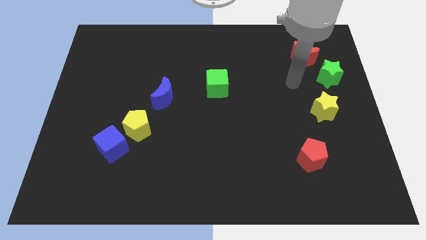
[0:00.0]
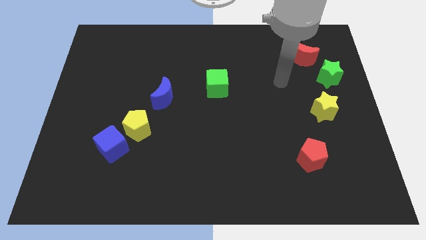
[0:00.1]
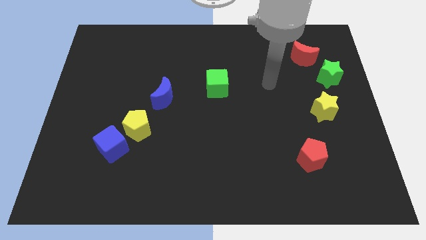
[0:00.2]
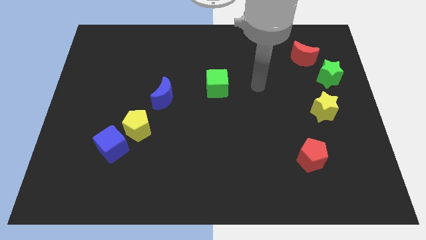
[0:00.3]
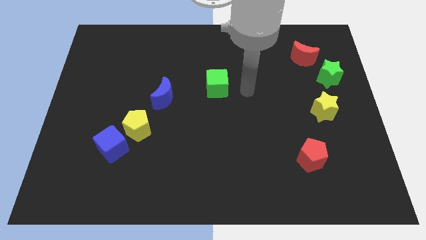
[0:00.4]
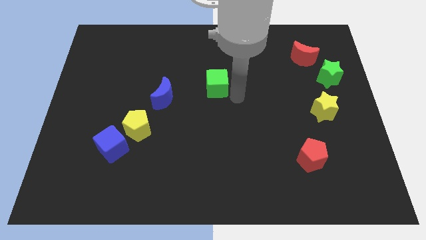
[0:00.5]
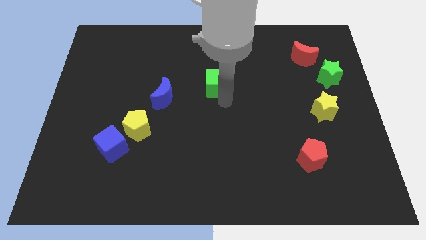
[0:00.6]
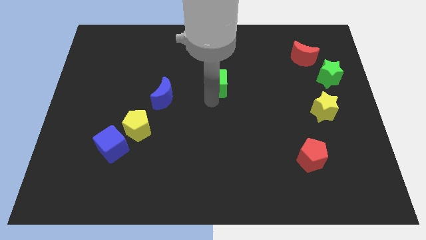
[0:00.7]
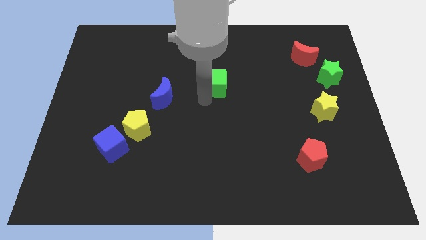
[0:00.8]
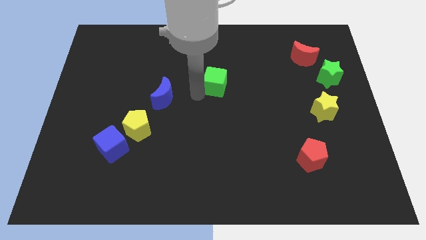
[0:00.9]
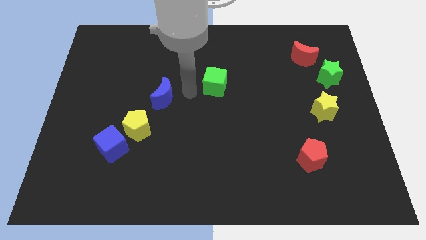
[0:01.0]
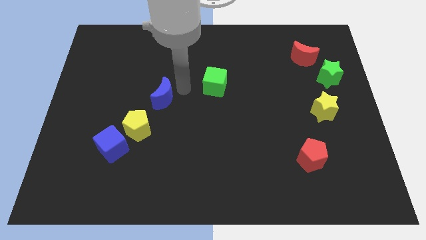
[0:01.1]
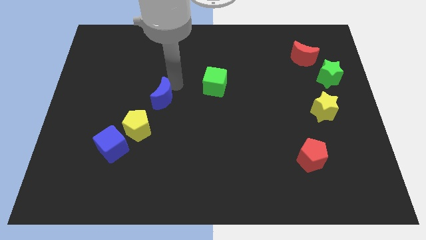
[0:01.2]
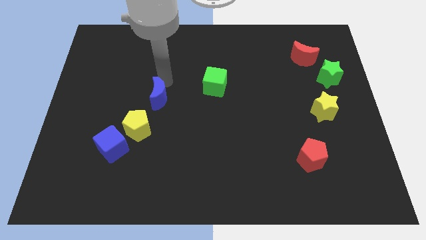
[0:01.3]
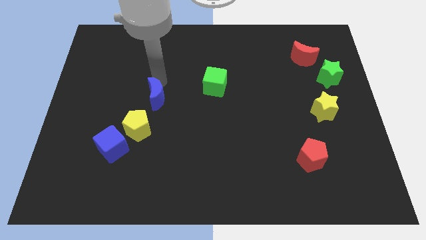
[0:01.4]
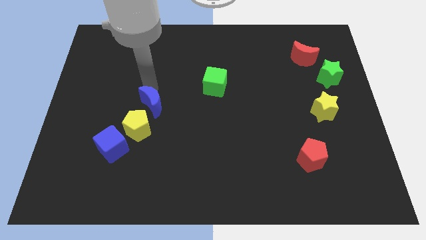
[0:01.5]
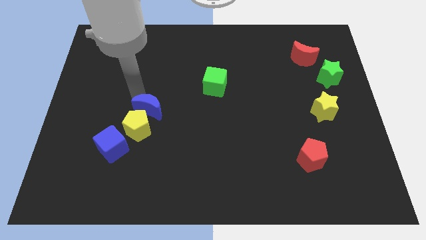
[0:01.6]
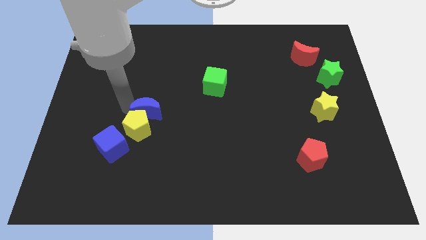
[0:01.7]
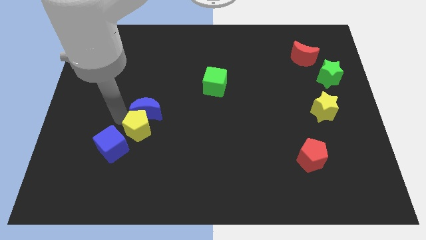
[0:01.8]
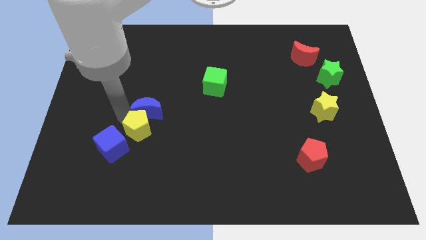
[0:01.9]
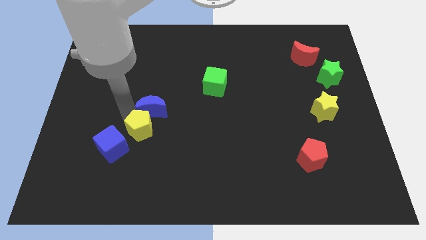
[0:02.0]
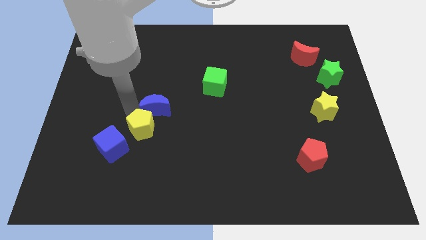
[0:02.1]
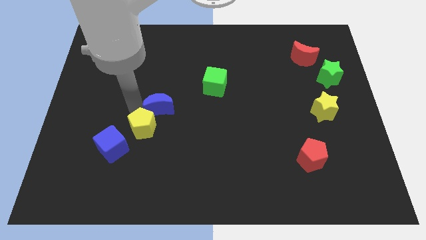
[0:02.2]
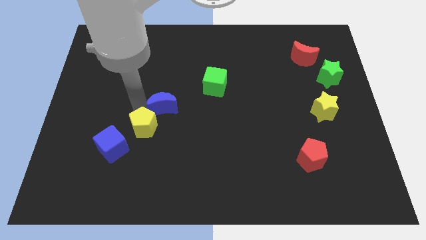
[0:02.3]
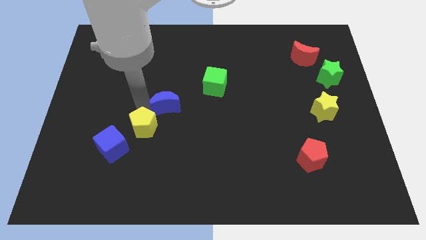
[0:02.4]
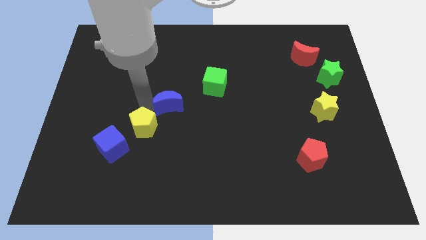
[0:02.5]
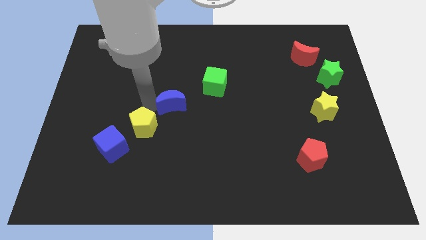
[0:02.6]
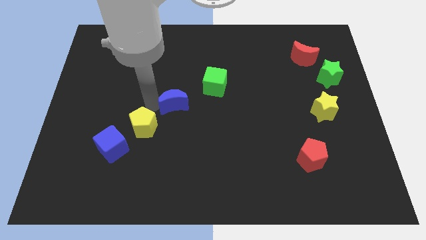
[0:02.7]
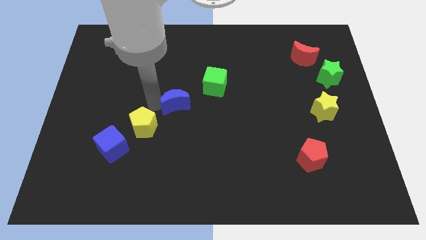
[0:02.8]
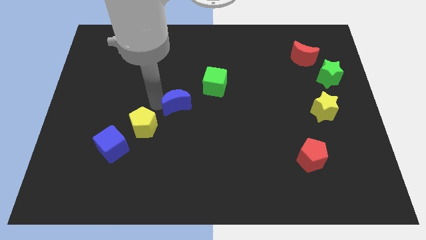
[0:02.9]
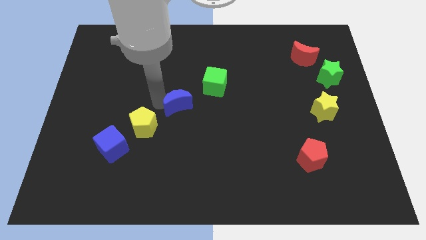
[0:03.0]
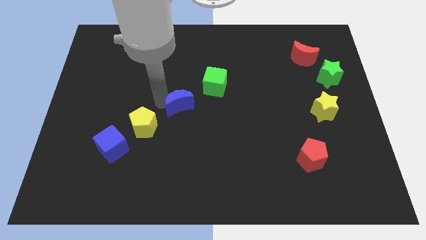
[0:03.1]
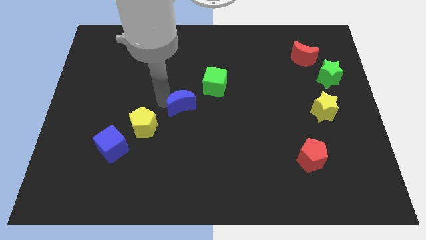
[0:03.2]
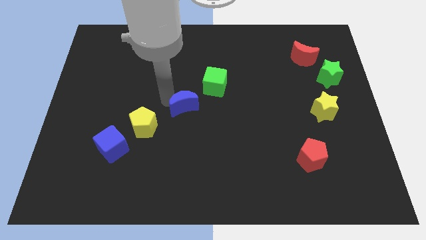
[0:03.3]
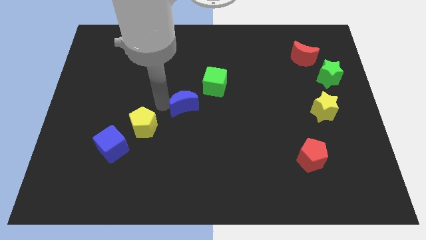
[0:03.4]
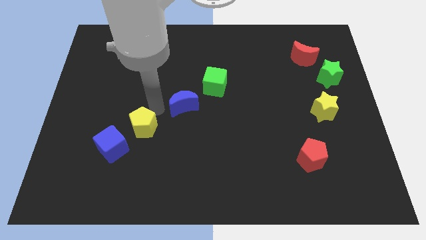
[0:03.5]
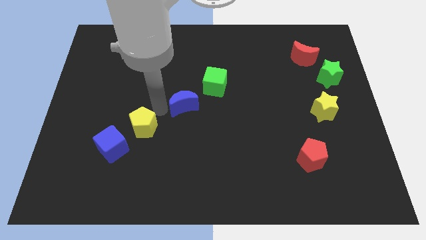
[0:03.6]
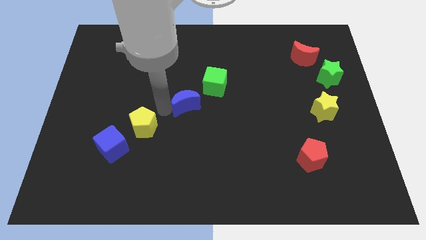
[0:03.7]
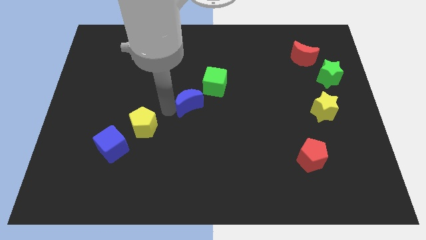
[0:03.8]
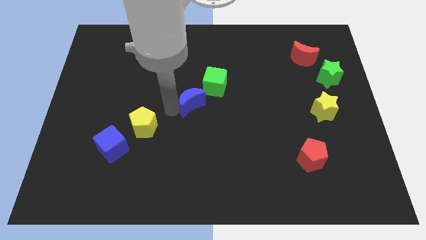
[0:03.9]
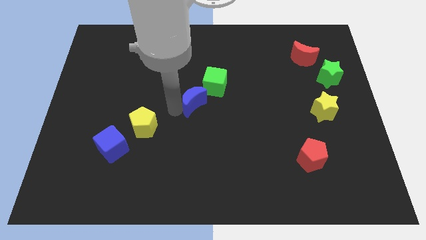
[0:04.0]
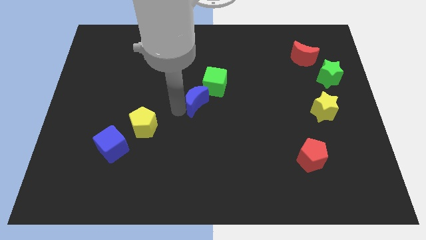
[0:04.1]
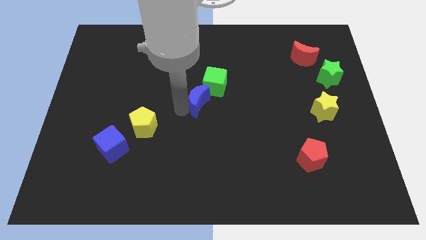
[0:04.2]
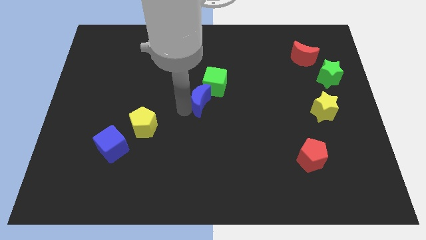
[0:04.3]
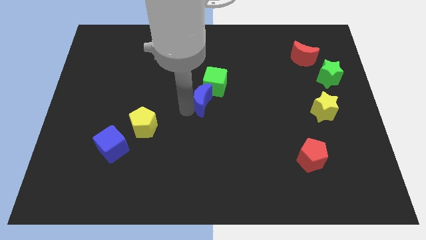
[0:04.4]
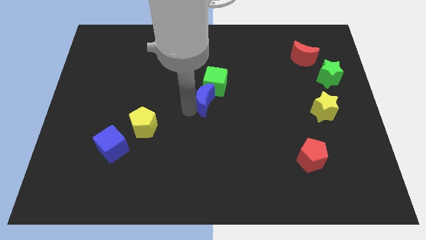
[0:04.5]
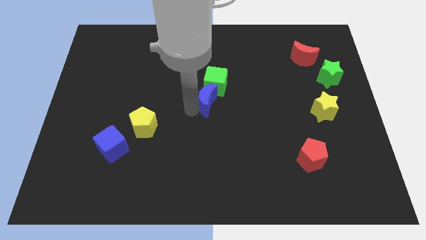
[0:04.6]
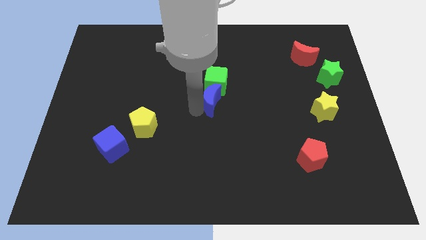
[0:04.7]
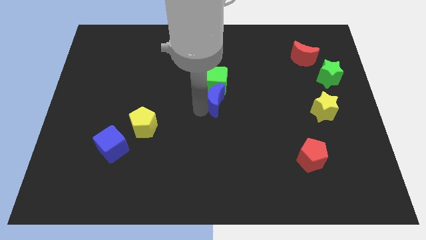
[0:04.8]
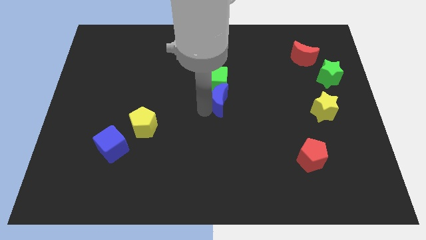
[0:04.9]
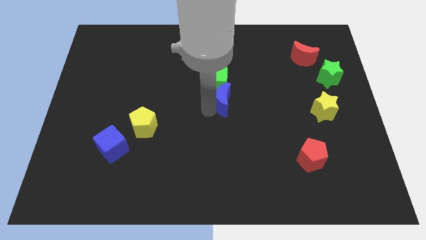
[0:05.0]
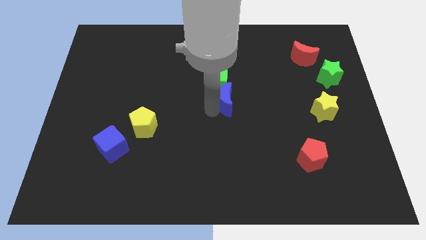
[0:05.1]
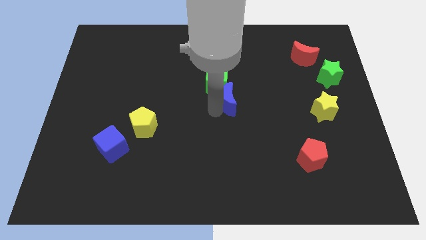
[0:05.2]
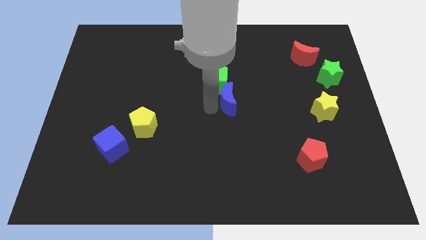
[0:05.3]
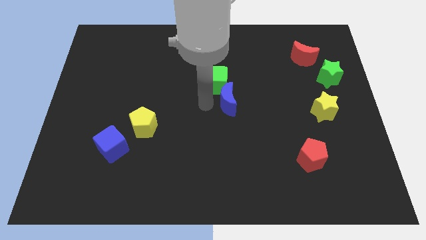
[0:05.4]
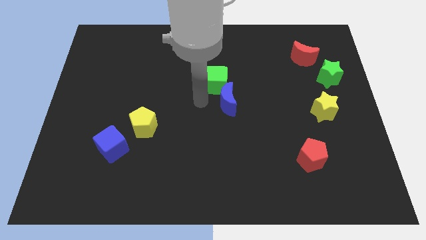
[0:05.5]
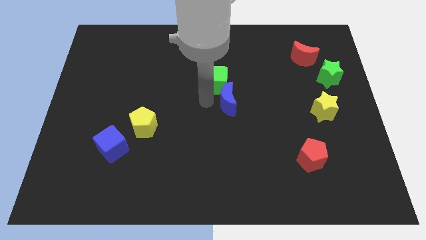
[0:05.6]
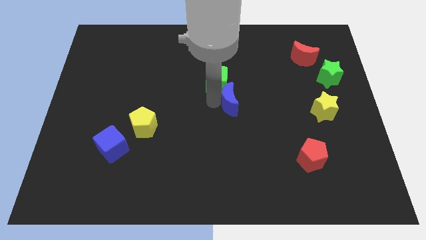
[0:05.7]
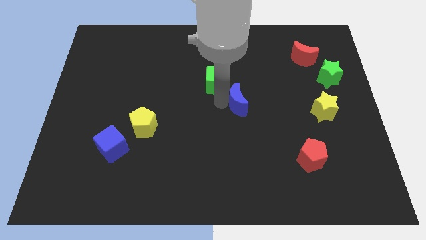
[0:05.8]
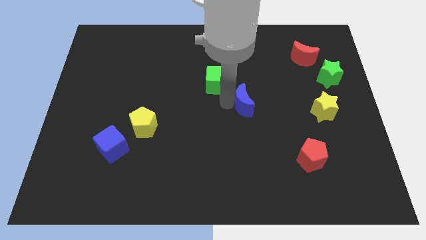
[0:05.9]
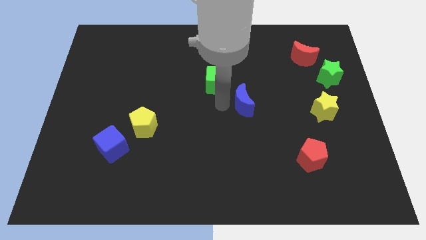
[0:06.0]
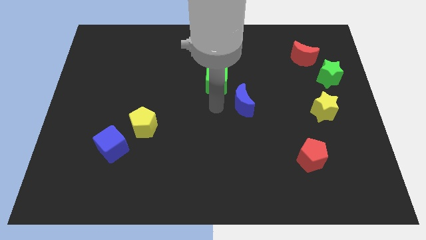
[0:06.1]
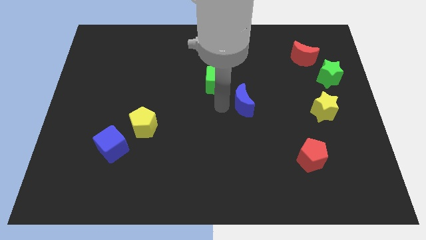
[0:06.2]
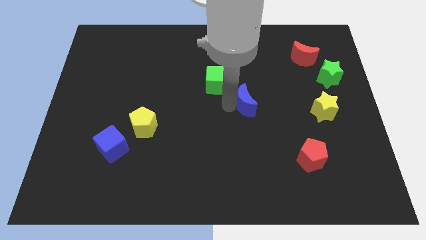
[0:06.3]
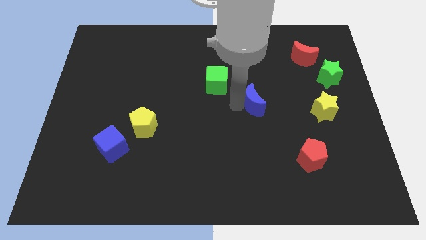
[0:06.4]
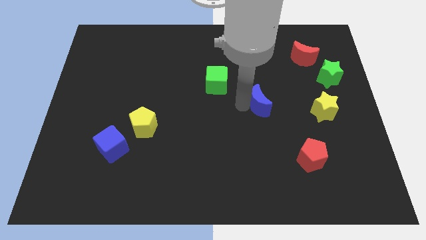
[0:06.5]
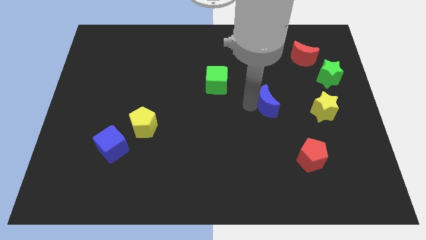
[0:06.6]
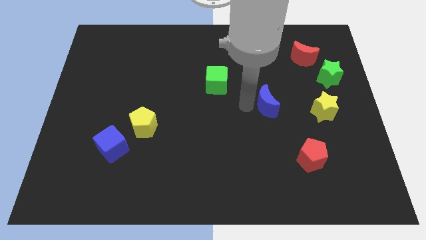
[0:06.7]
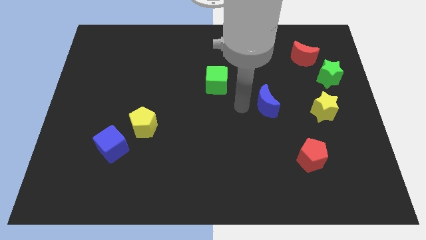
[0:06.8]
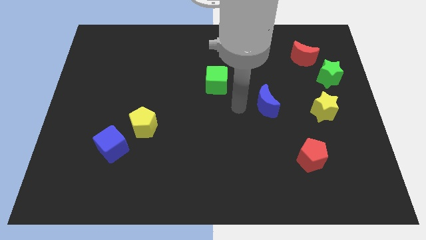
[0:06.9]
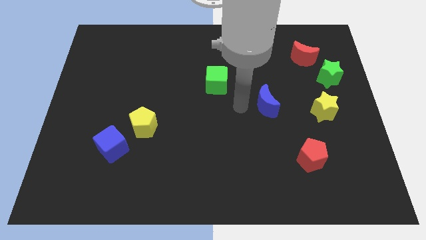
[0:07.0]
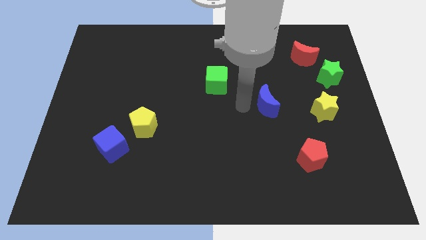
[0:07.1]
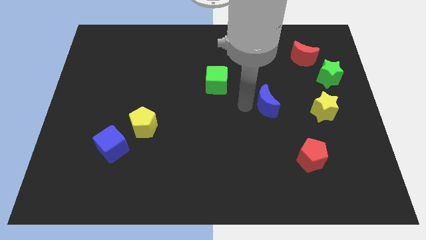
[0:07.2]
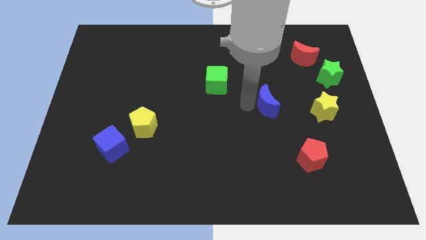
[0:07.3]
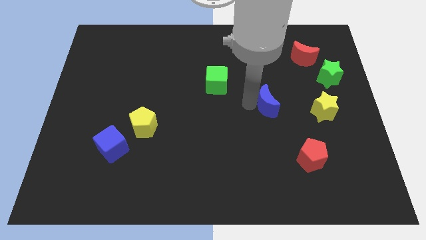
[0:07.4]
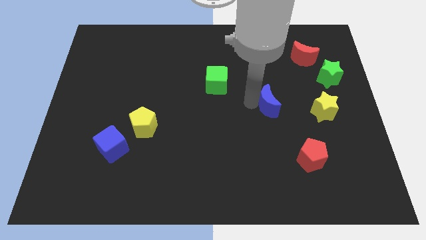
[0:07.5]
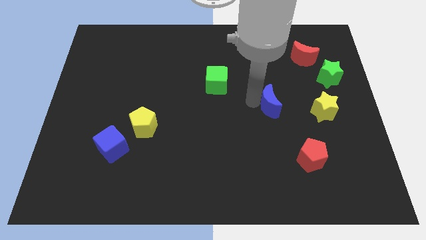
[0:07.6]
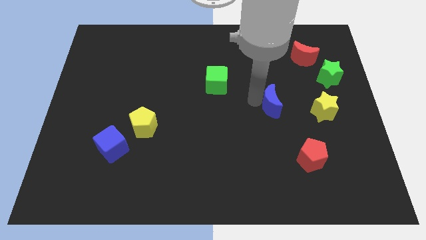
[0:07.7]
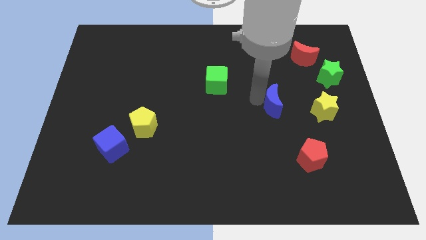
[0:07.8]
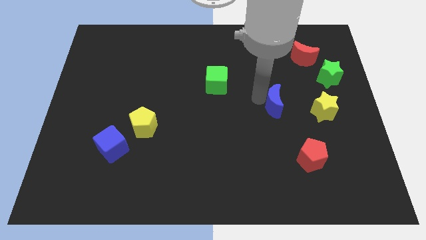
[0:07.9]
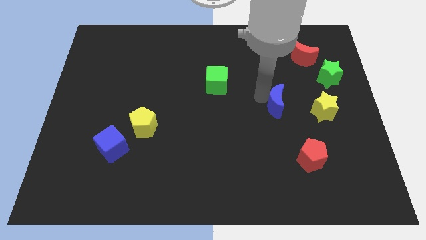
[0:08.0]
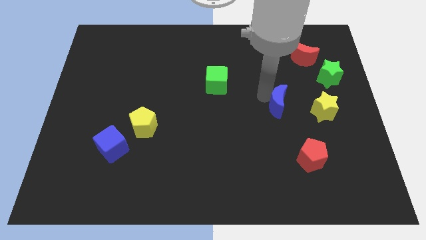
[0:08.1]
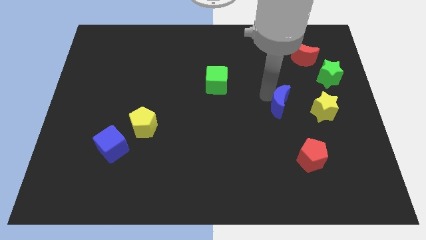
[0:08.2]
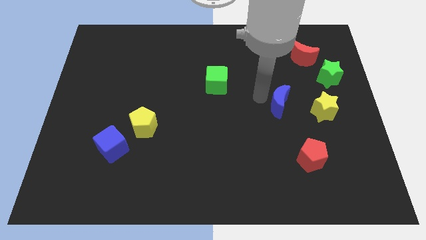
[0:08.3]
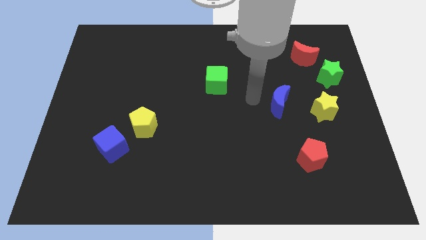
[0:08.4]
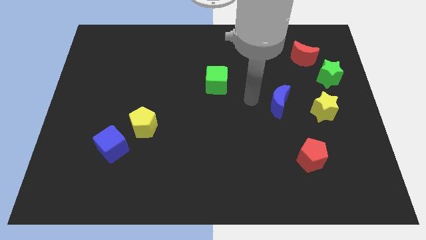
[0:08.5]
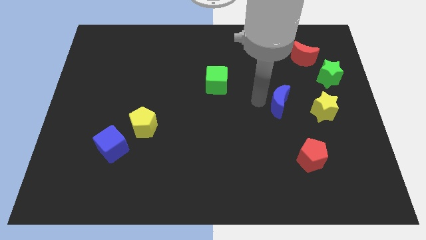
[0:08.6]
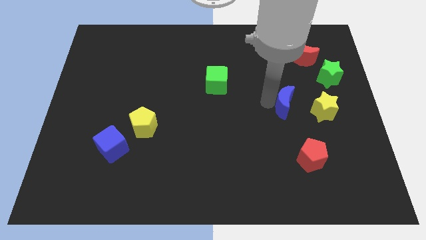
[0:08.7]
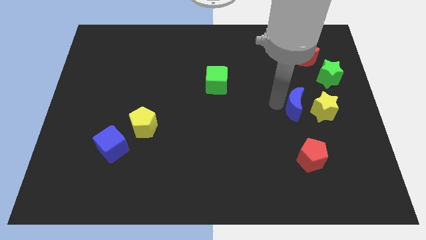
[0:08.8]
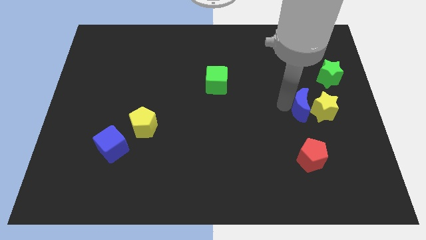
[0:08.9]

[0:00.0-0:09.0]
push the blue moon towards the yellow star
